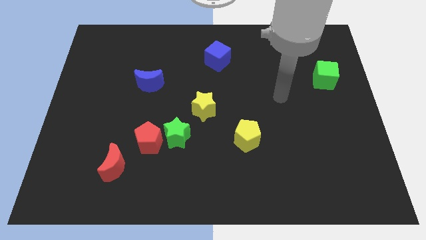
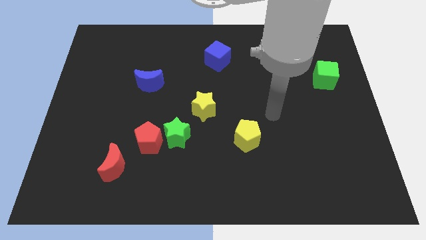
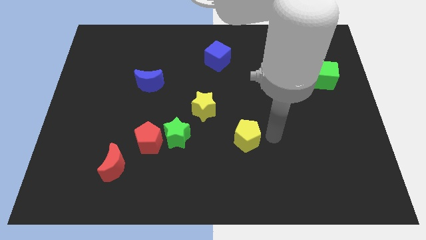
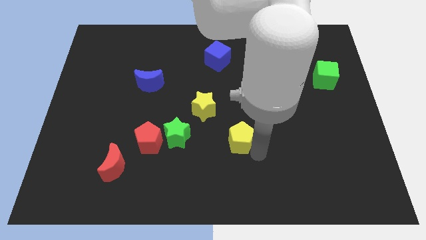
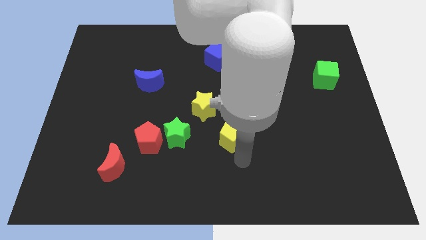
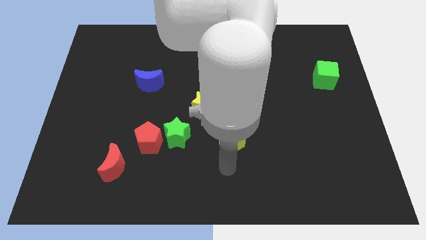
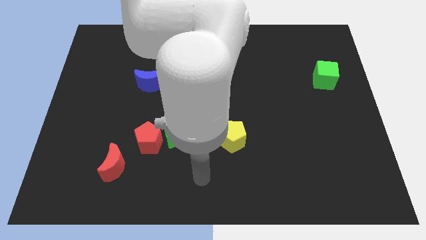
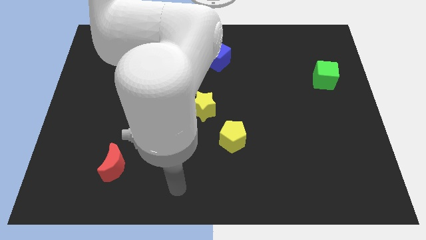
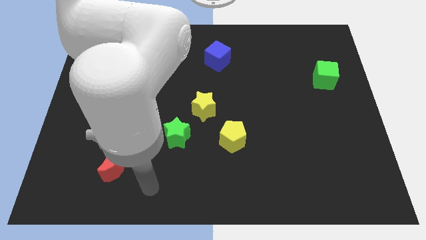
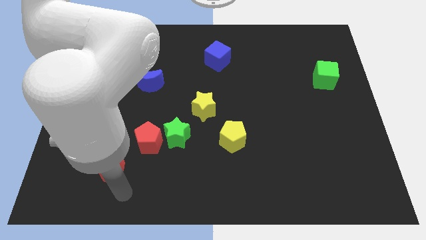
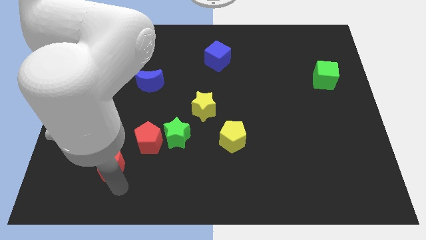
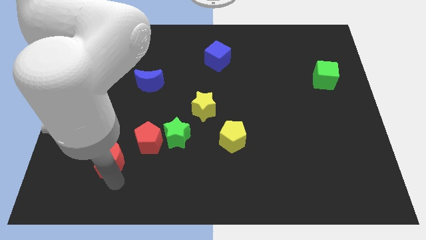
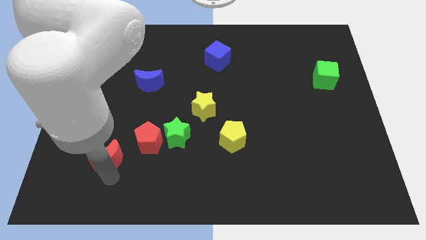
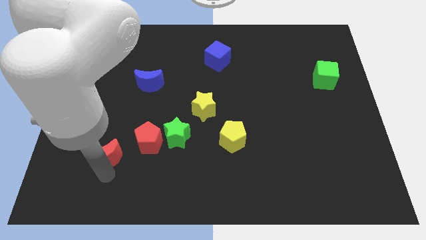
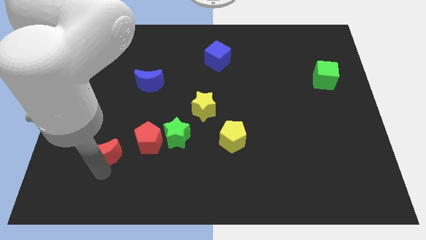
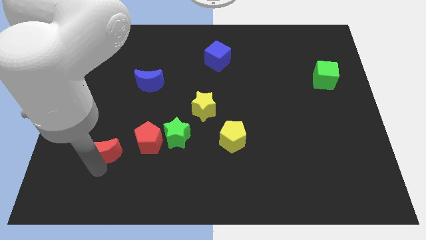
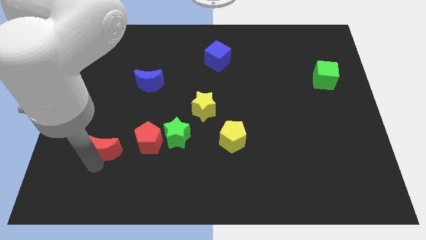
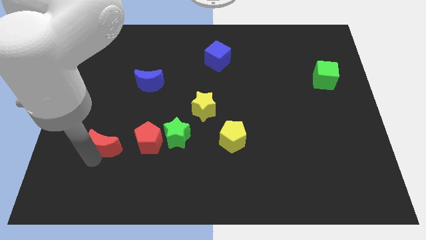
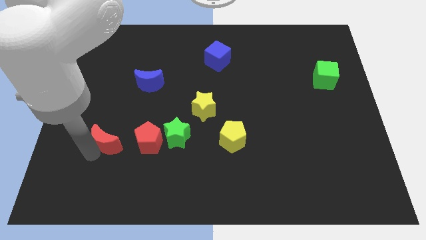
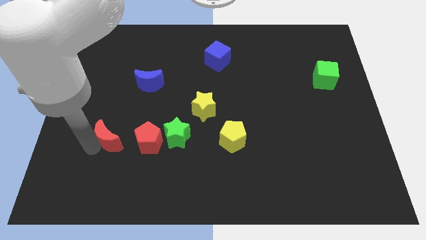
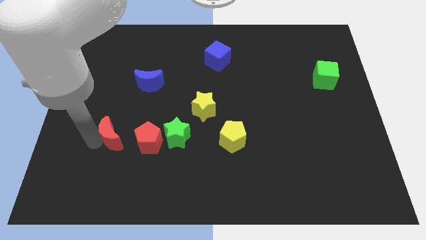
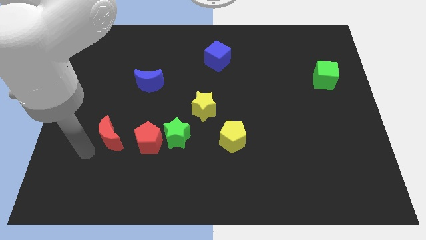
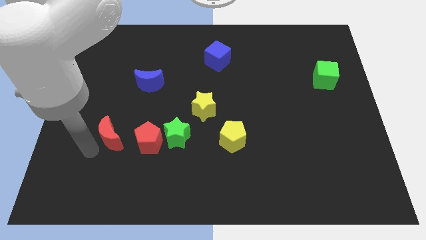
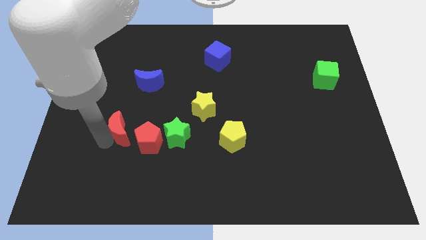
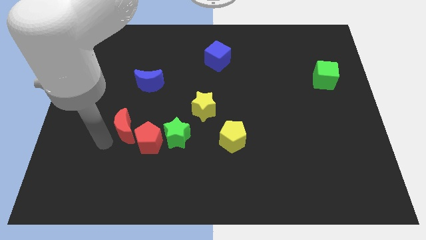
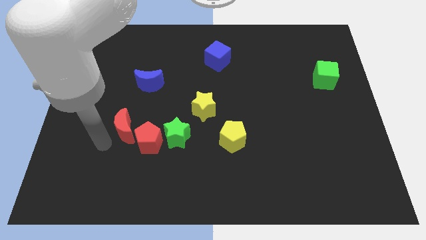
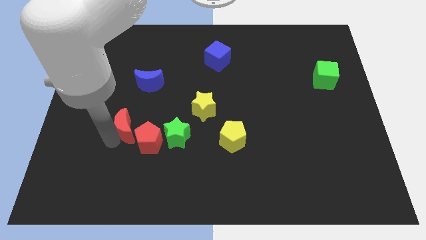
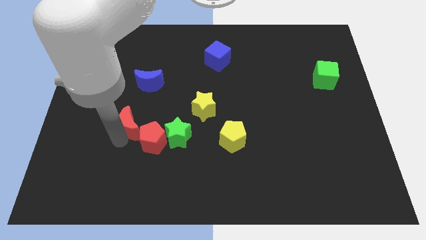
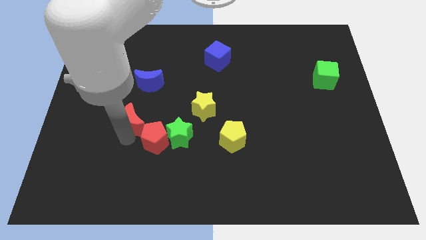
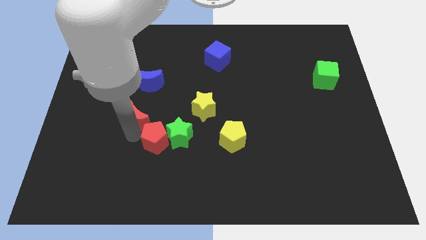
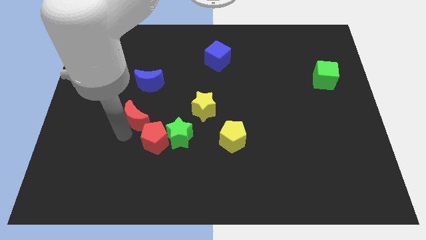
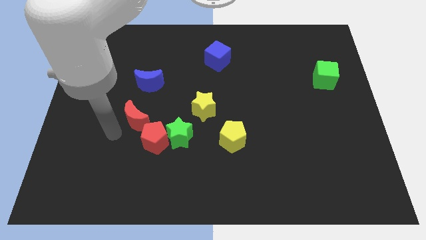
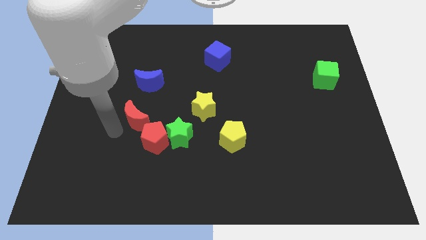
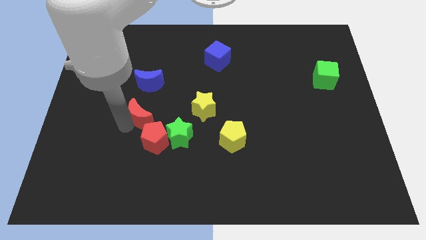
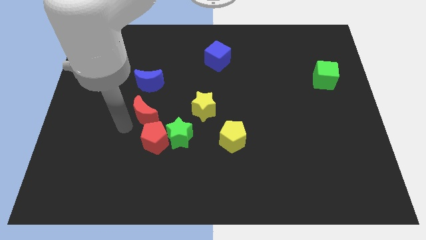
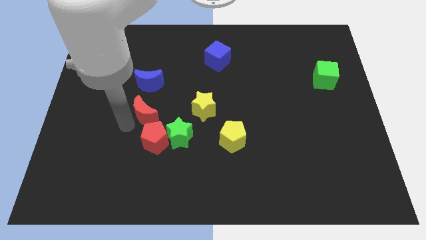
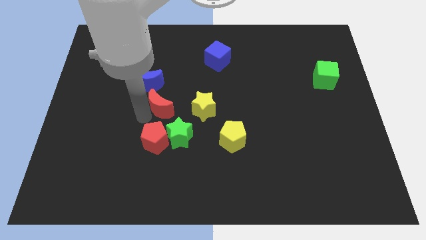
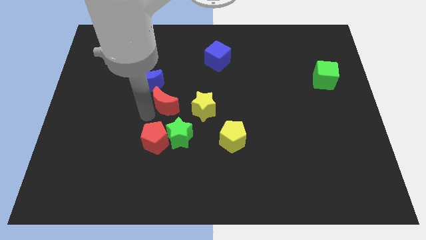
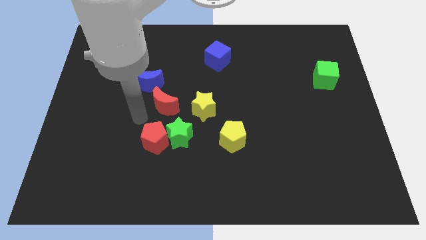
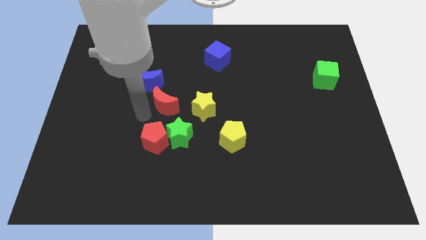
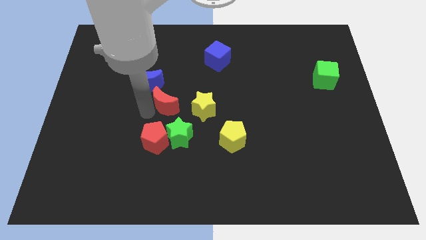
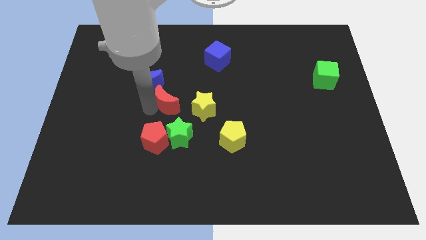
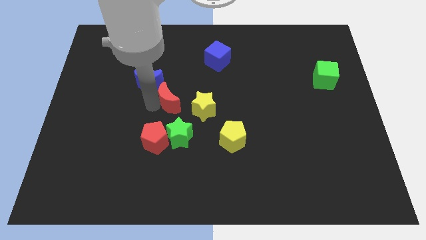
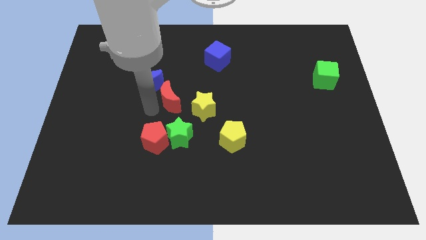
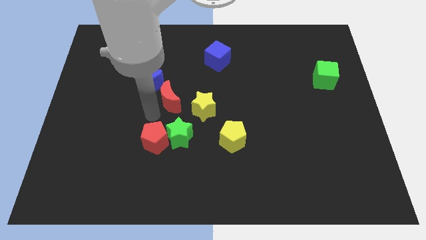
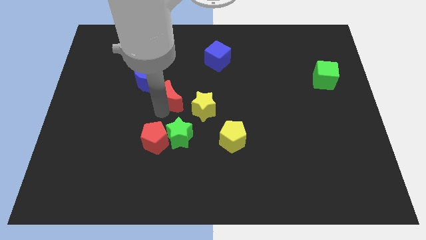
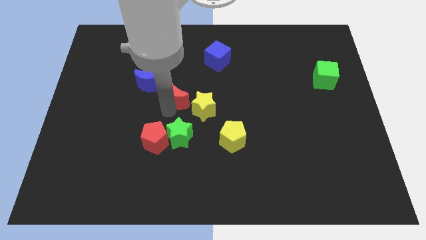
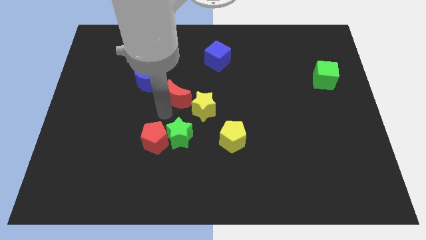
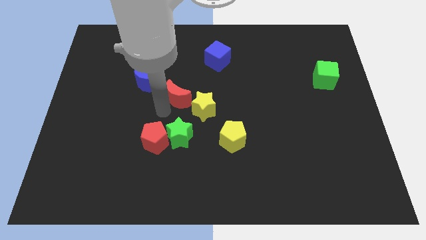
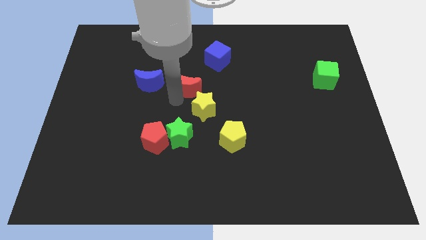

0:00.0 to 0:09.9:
move the red moon above the yellow star

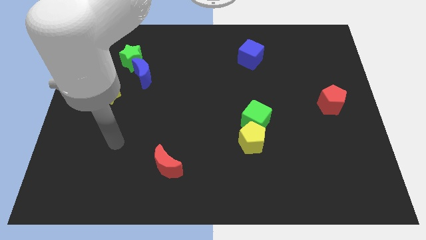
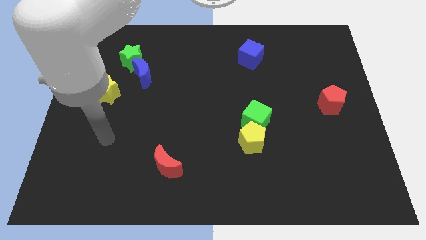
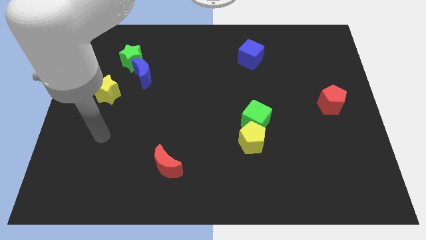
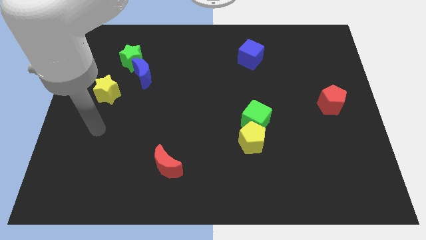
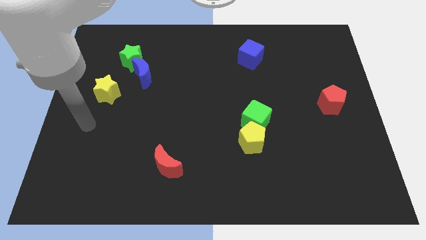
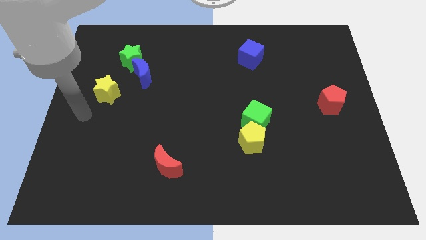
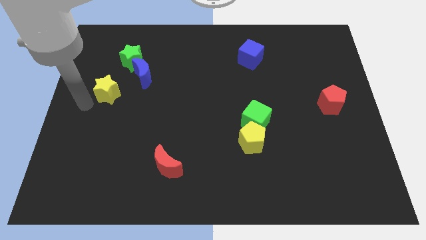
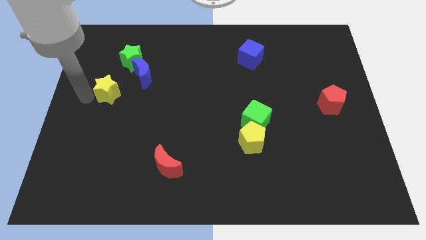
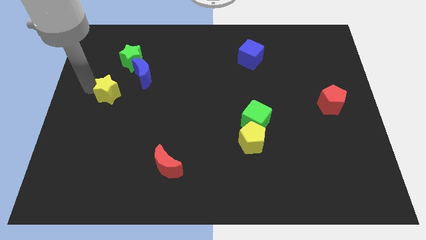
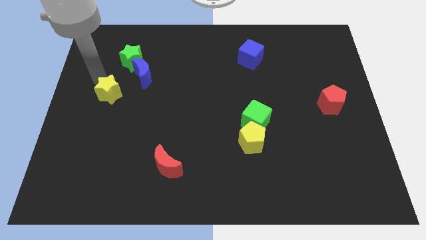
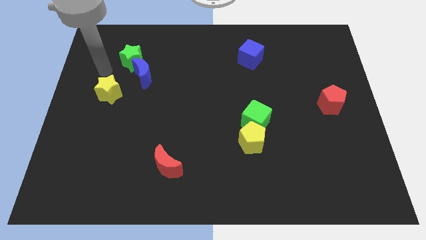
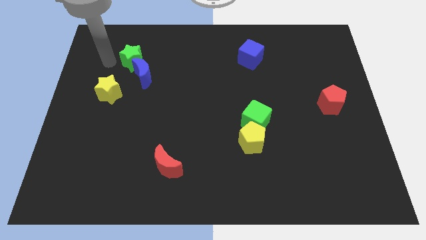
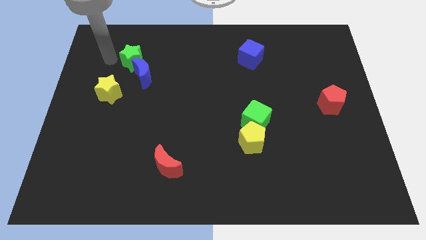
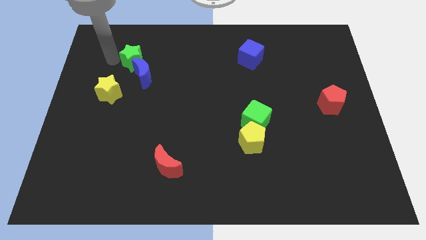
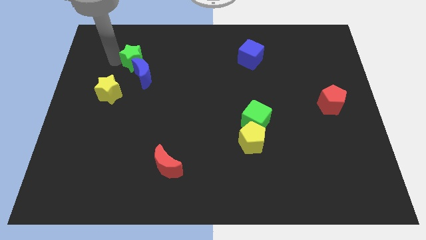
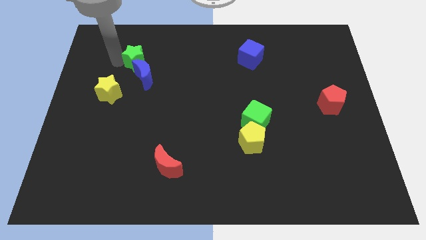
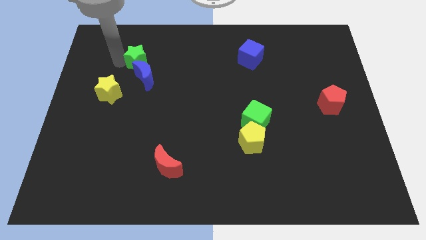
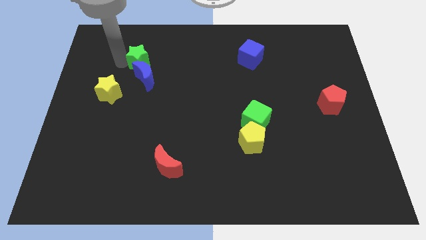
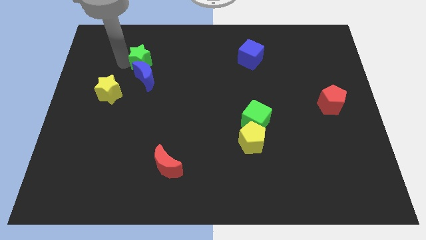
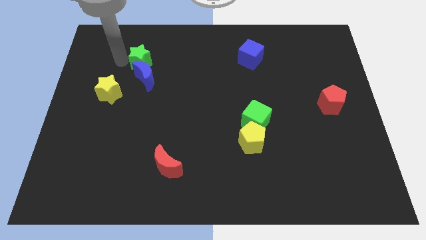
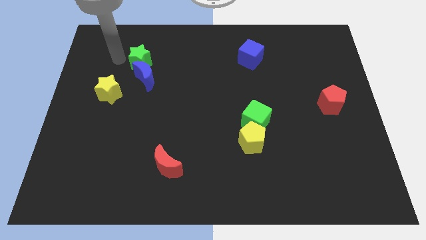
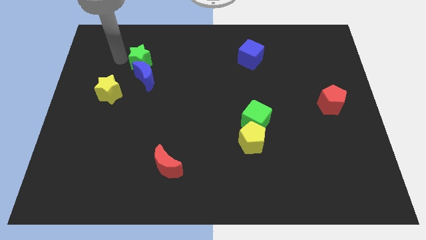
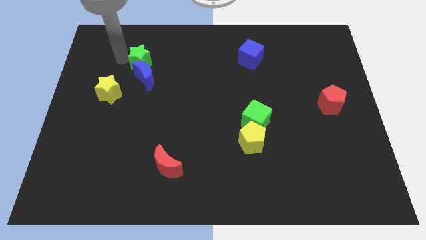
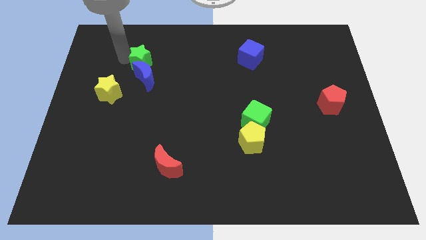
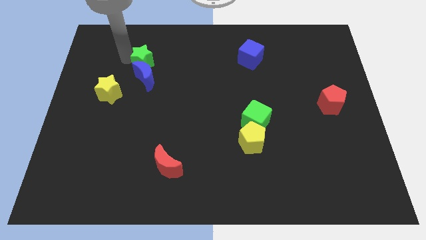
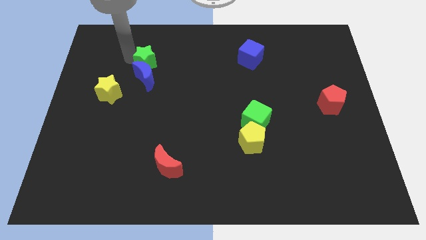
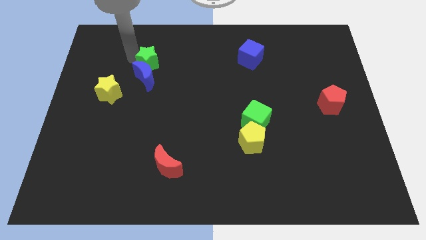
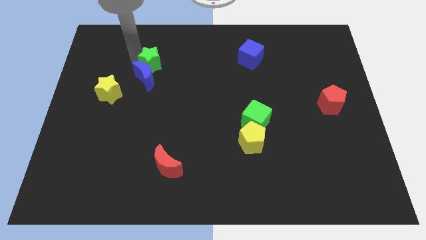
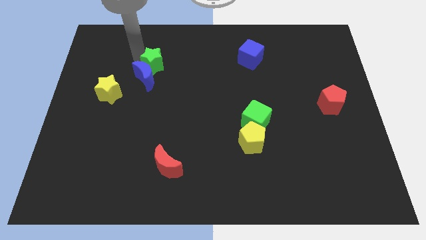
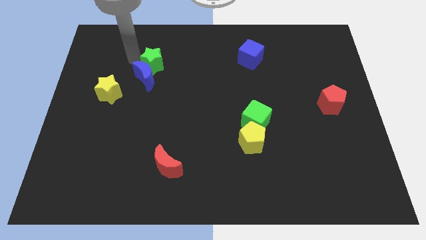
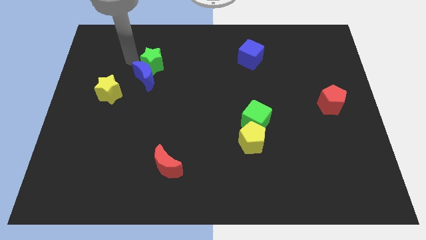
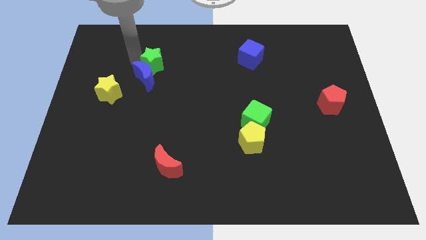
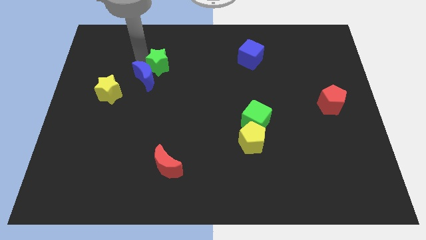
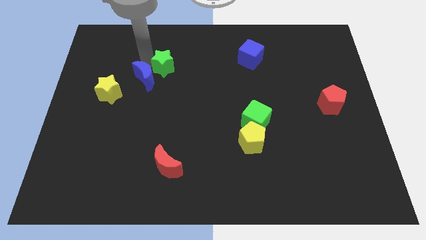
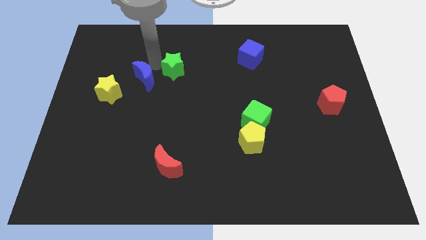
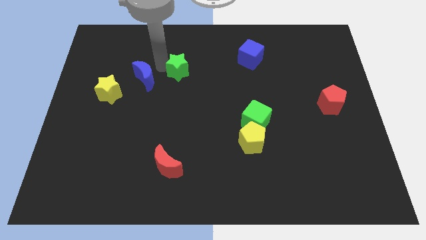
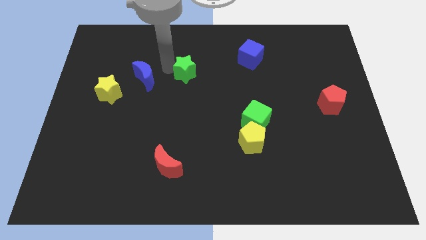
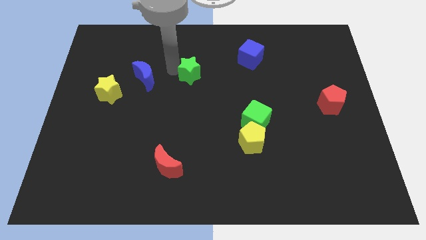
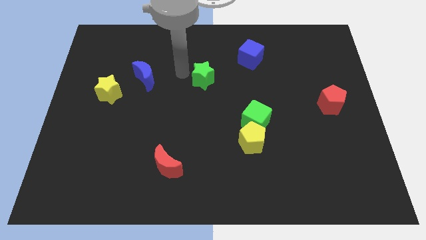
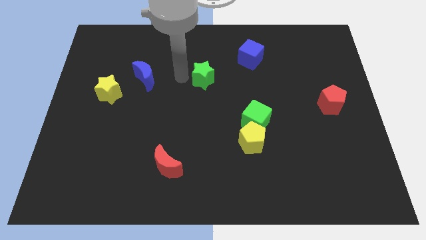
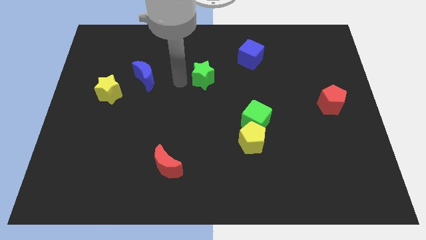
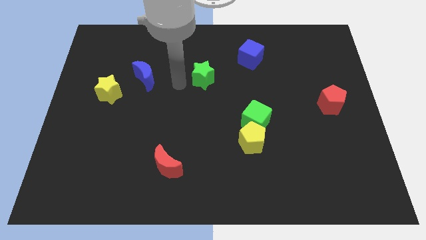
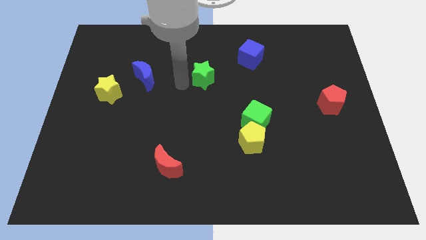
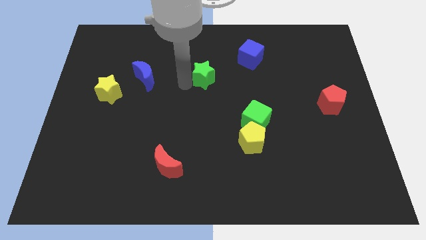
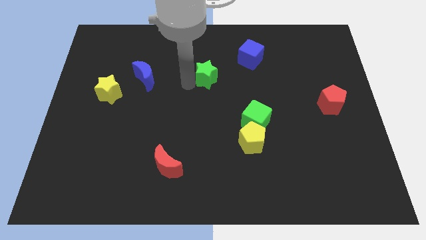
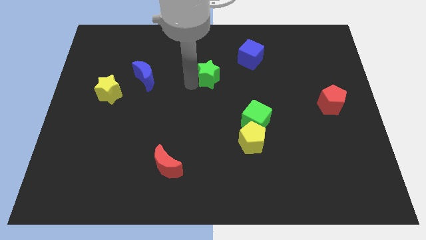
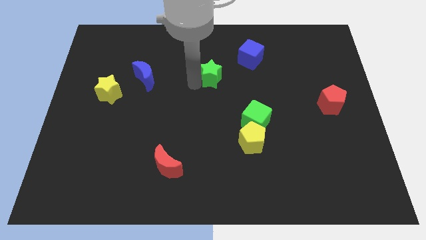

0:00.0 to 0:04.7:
move the green star to the bottom left of the blue cube
